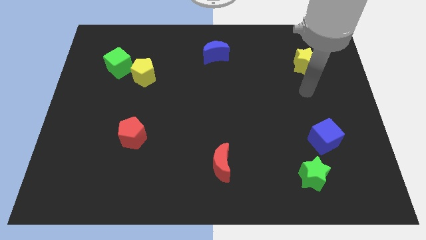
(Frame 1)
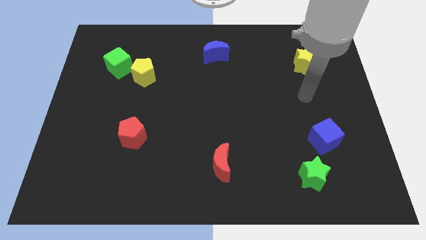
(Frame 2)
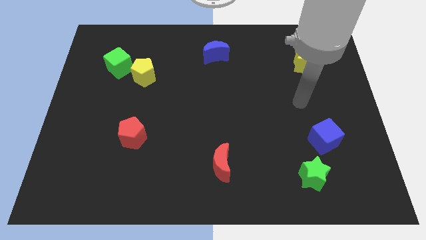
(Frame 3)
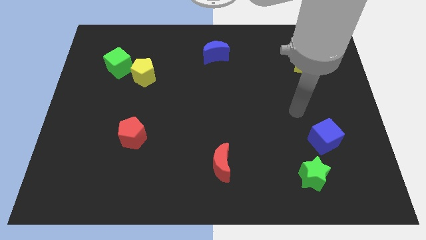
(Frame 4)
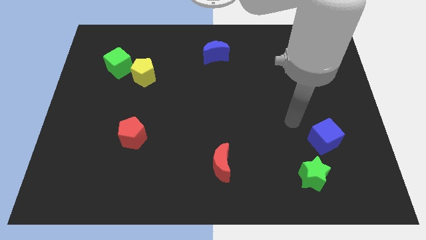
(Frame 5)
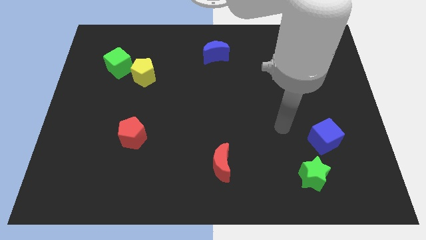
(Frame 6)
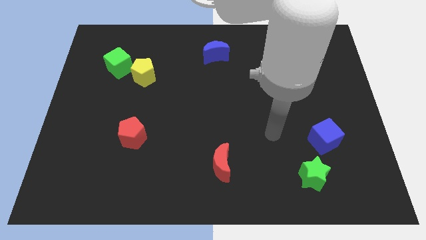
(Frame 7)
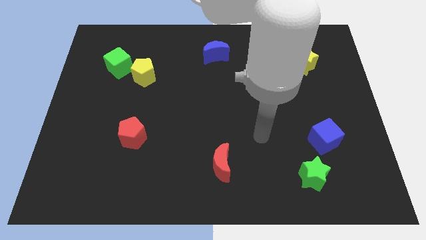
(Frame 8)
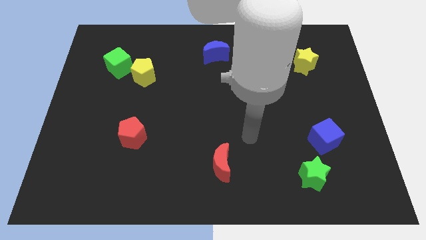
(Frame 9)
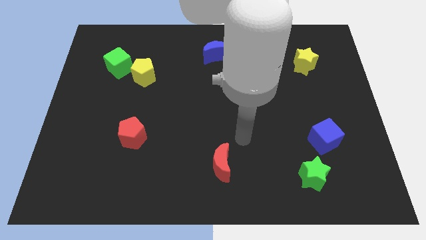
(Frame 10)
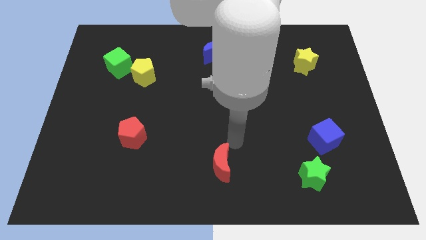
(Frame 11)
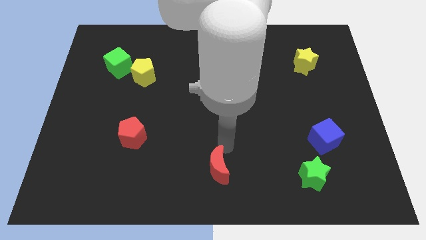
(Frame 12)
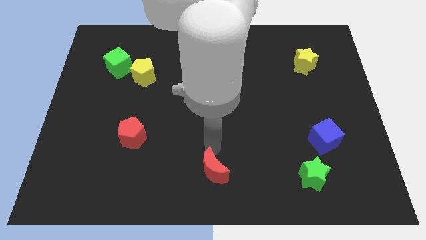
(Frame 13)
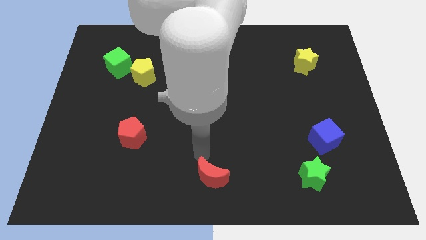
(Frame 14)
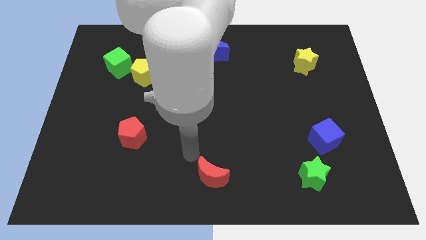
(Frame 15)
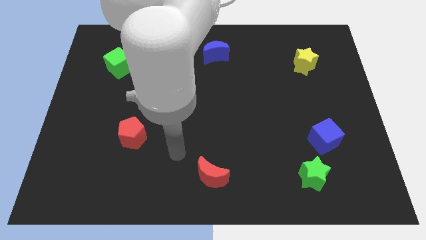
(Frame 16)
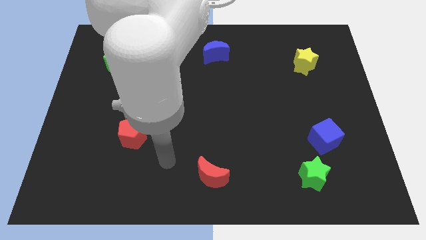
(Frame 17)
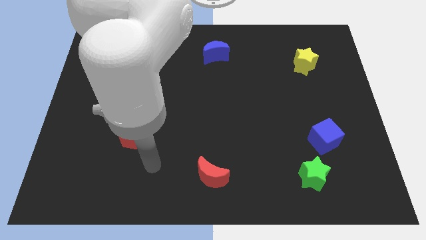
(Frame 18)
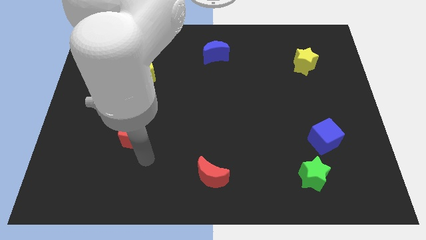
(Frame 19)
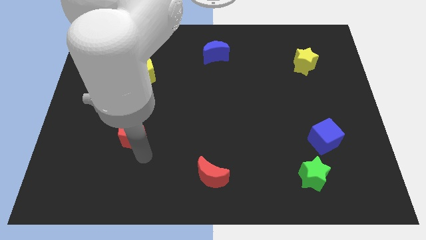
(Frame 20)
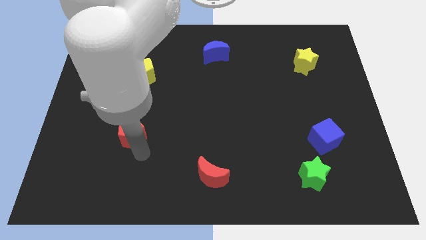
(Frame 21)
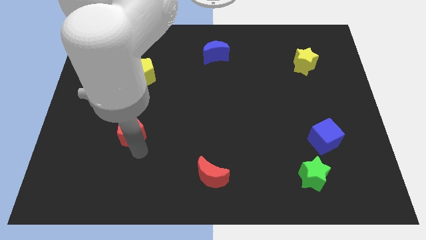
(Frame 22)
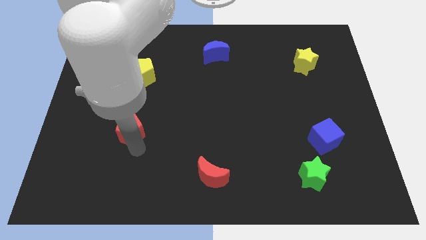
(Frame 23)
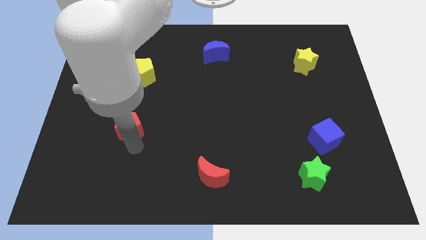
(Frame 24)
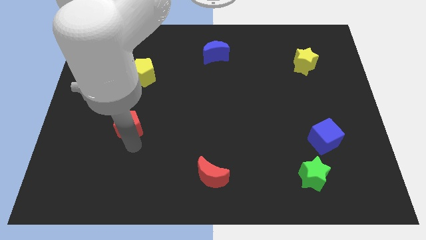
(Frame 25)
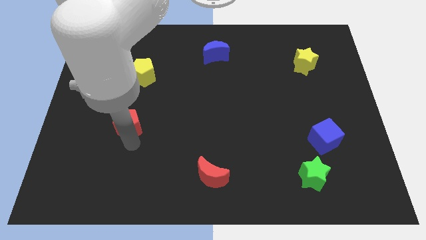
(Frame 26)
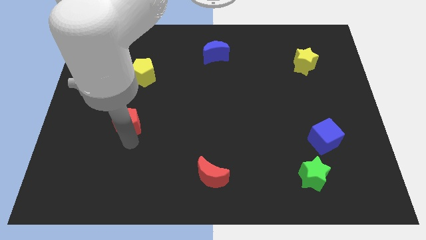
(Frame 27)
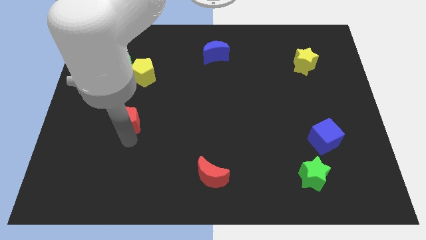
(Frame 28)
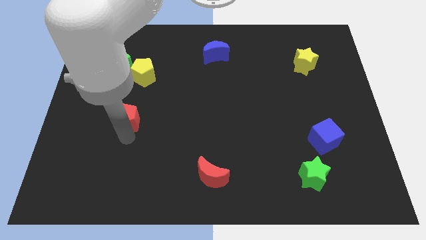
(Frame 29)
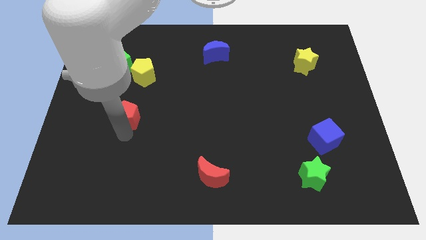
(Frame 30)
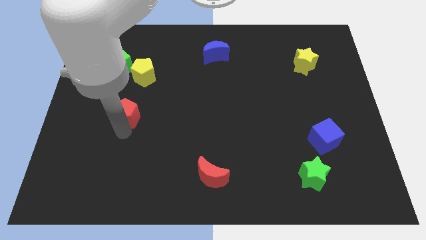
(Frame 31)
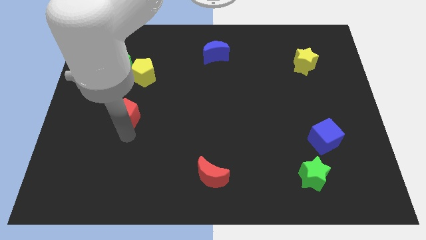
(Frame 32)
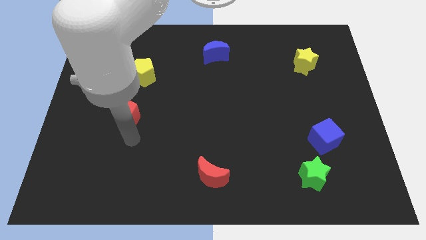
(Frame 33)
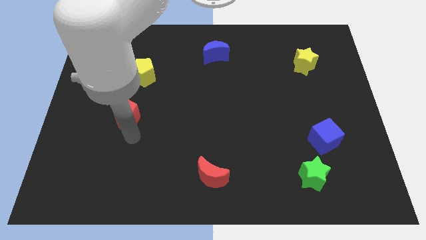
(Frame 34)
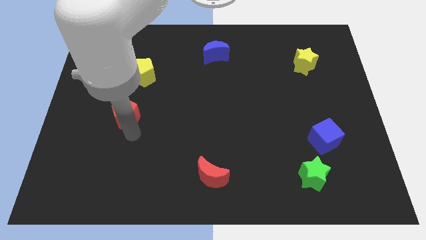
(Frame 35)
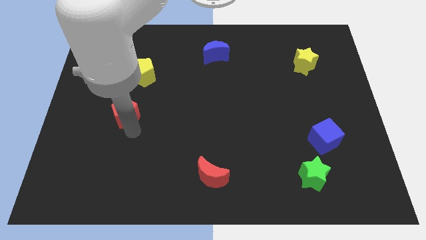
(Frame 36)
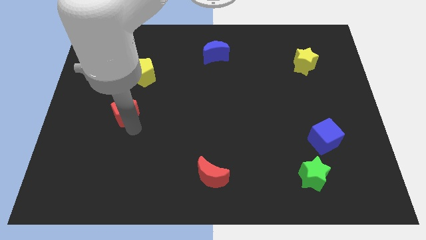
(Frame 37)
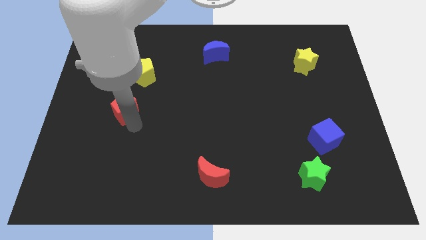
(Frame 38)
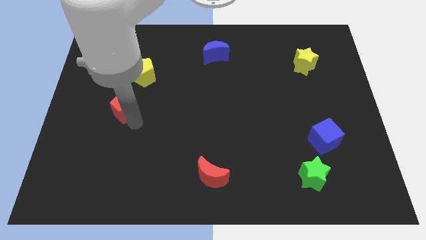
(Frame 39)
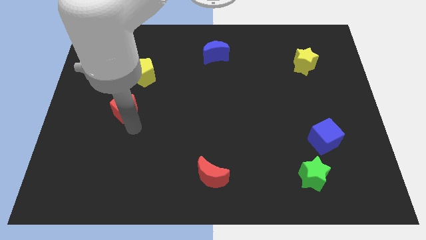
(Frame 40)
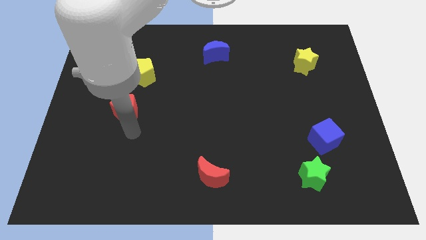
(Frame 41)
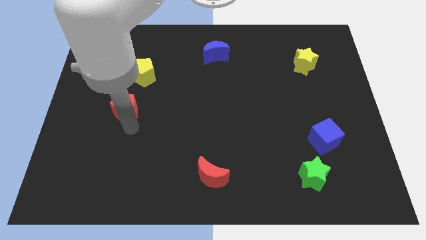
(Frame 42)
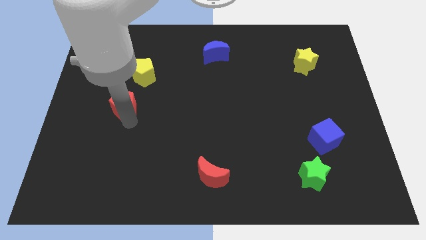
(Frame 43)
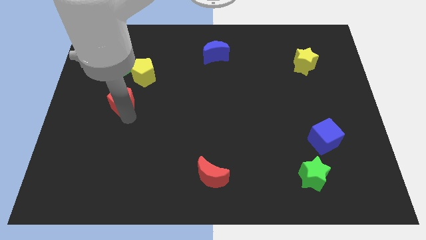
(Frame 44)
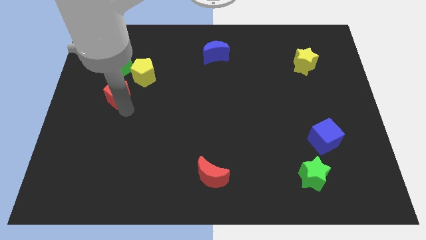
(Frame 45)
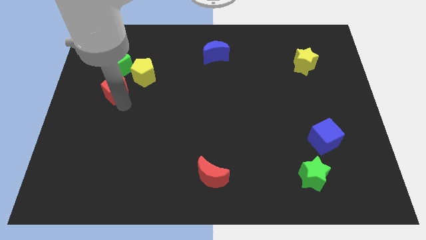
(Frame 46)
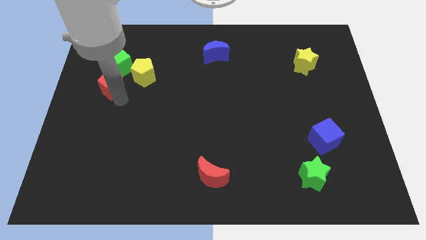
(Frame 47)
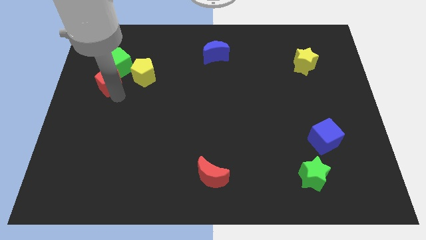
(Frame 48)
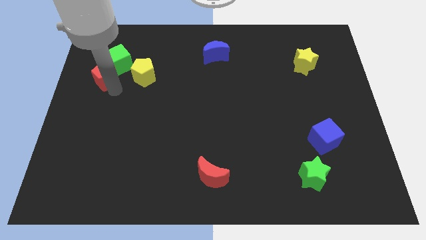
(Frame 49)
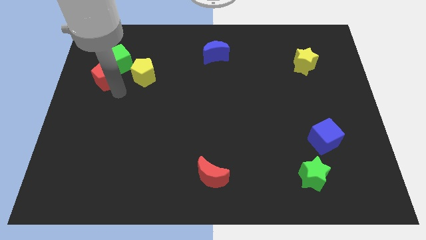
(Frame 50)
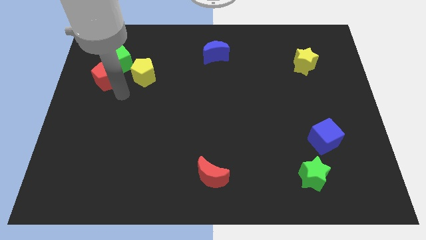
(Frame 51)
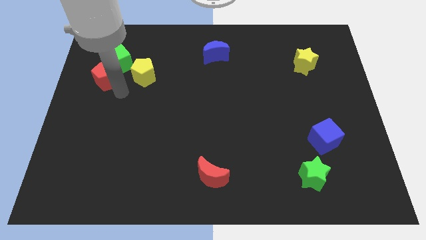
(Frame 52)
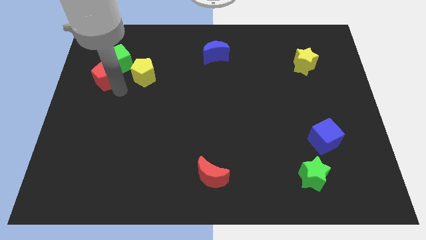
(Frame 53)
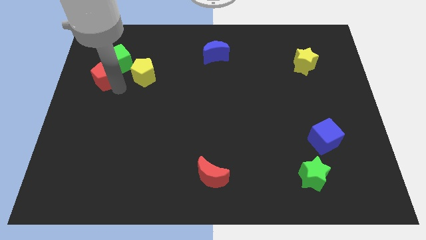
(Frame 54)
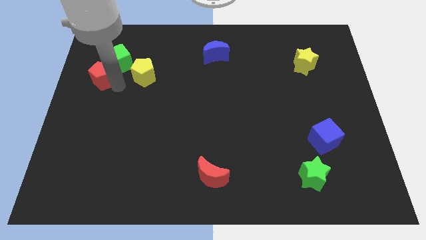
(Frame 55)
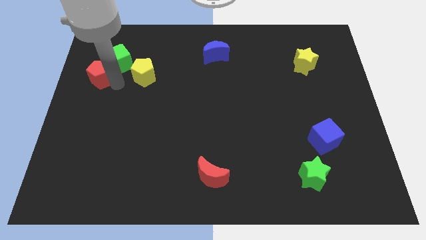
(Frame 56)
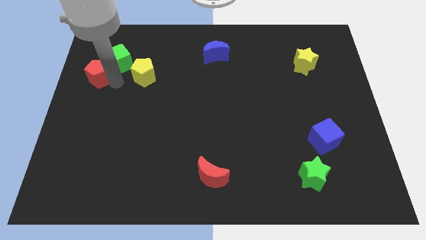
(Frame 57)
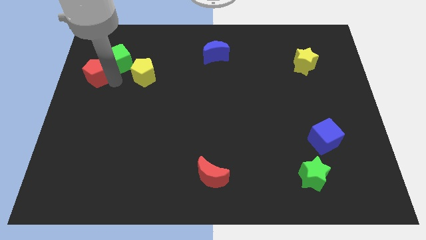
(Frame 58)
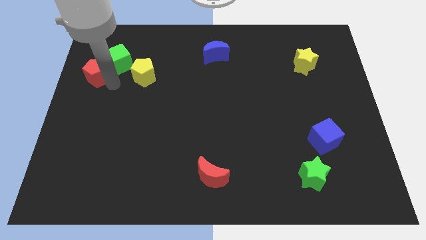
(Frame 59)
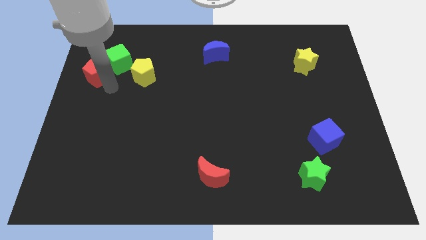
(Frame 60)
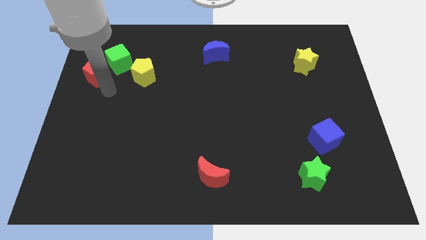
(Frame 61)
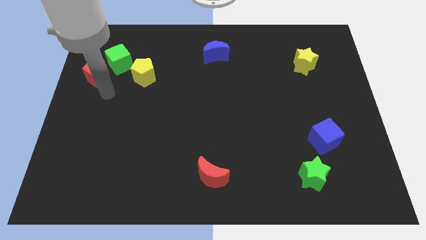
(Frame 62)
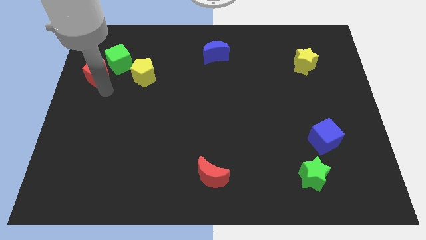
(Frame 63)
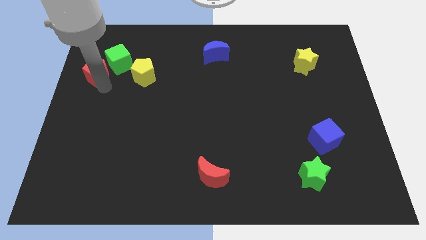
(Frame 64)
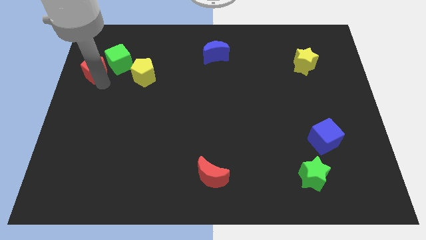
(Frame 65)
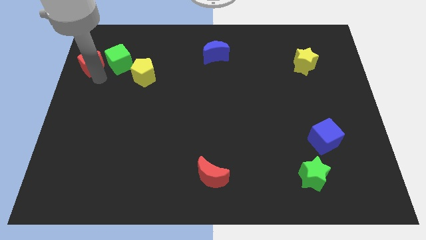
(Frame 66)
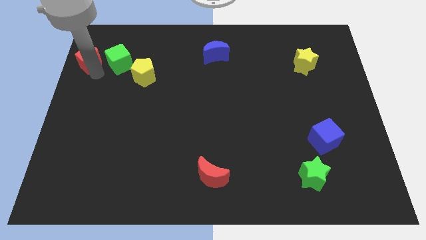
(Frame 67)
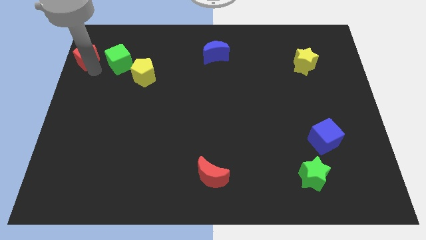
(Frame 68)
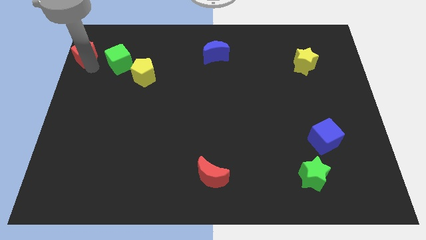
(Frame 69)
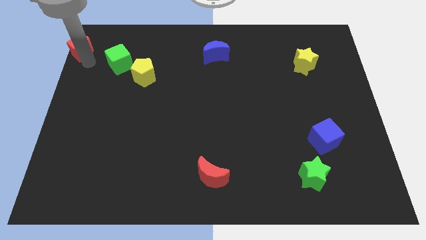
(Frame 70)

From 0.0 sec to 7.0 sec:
slide the red pentagon to the upper left corner
